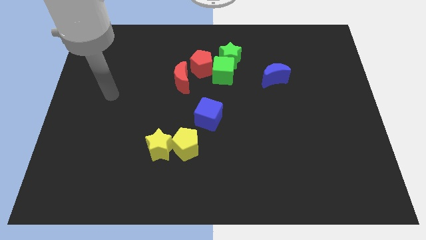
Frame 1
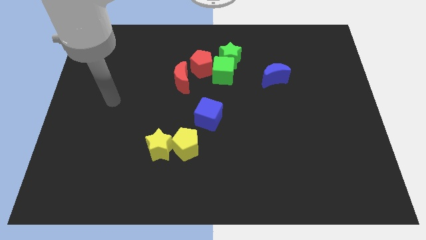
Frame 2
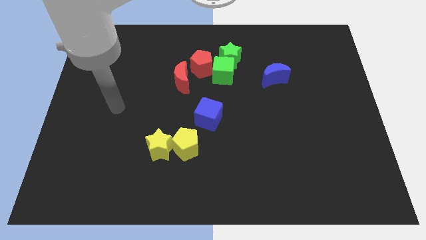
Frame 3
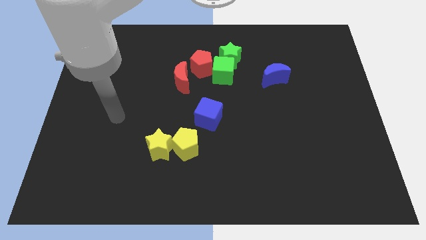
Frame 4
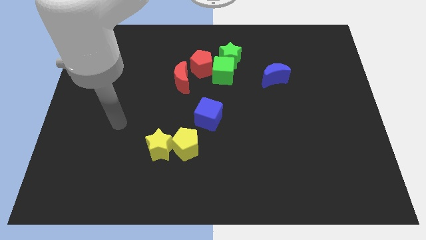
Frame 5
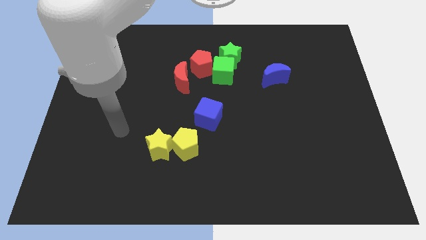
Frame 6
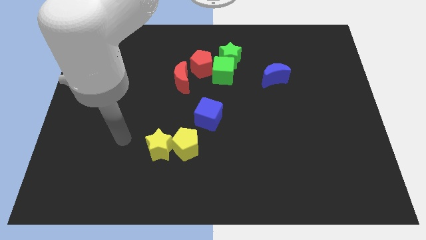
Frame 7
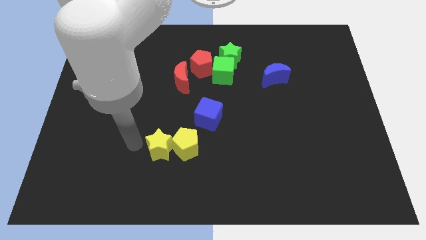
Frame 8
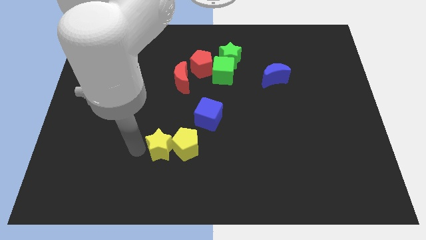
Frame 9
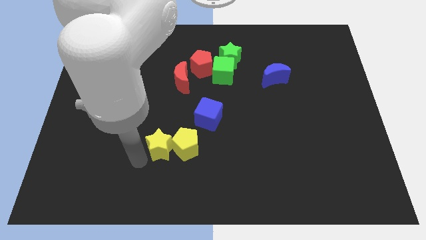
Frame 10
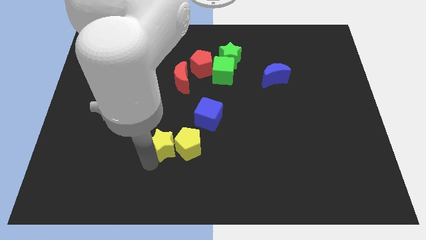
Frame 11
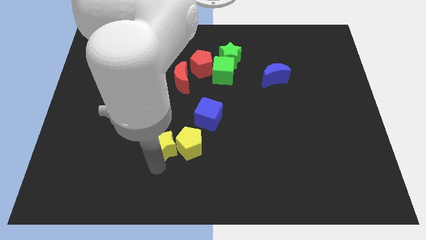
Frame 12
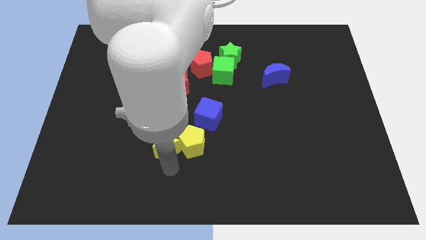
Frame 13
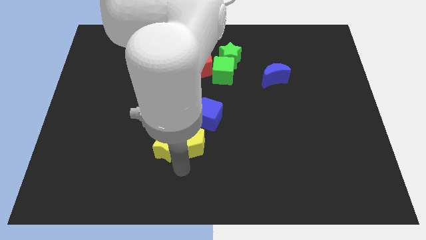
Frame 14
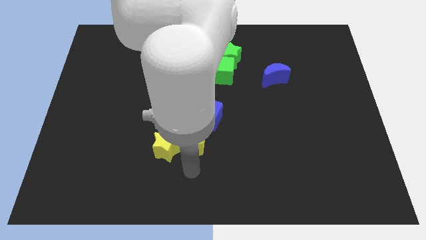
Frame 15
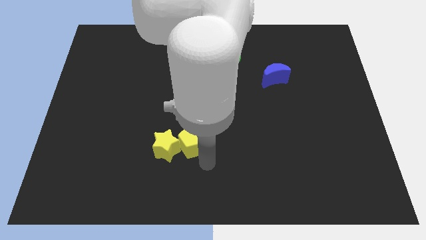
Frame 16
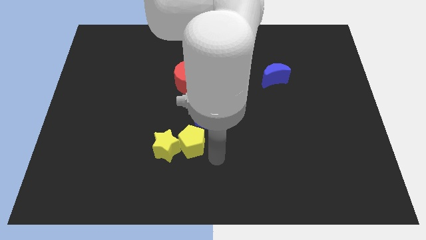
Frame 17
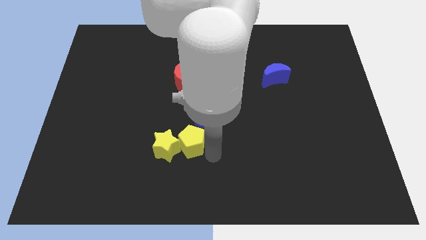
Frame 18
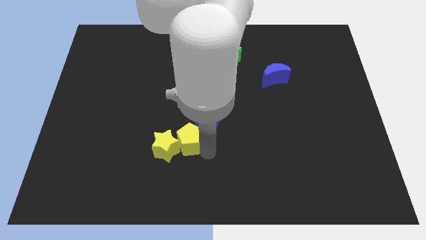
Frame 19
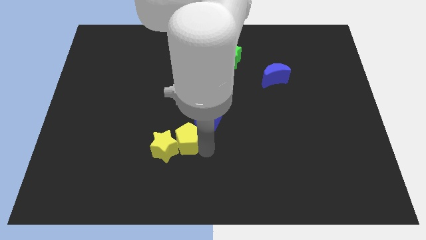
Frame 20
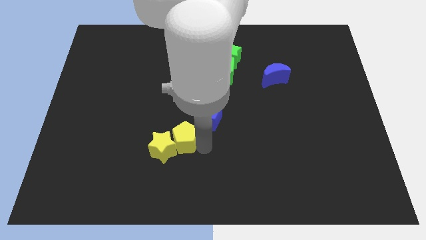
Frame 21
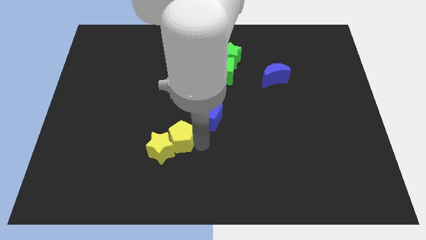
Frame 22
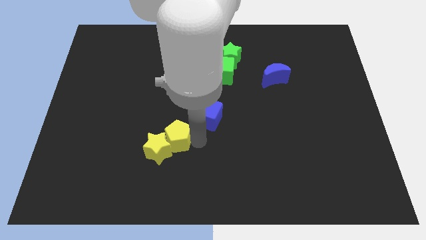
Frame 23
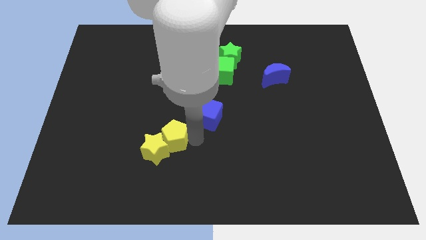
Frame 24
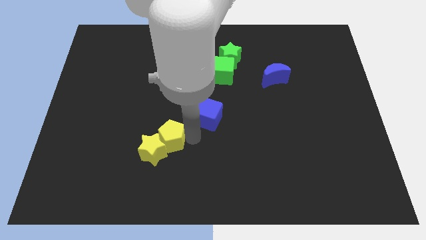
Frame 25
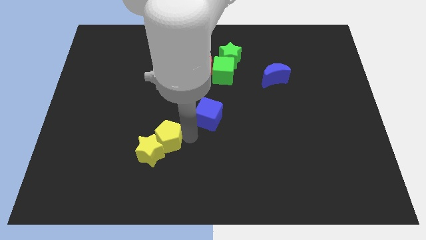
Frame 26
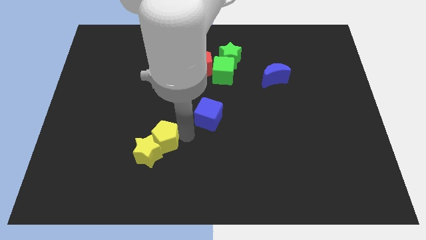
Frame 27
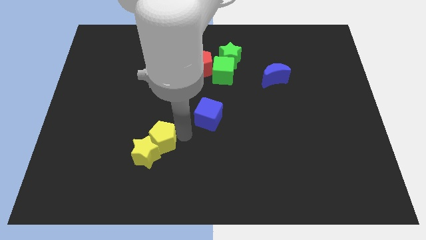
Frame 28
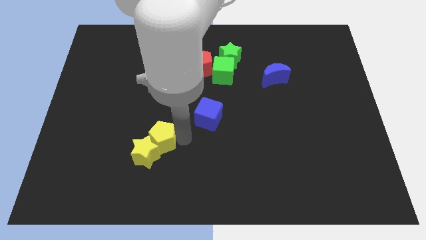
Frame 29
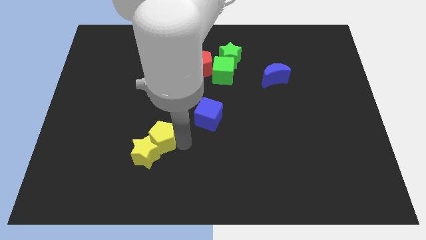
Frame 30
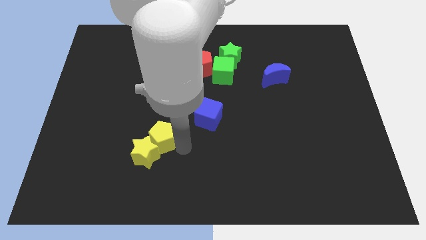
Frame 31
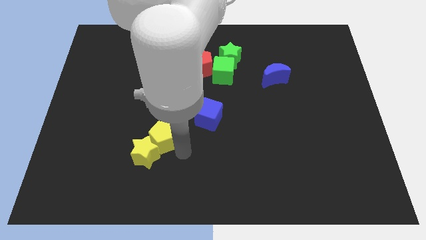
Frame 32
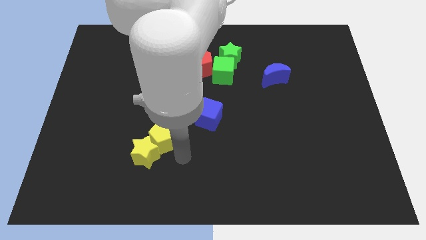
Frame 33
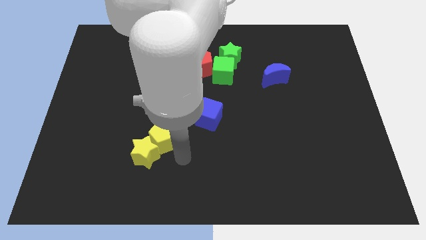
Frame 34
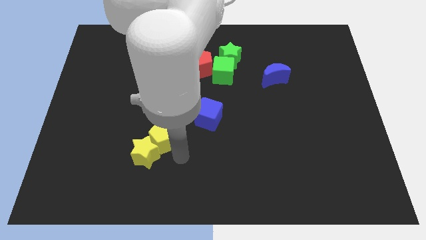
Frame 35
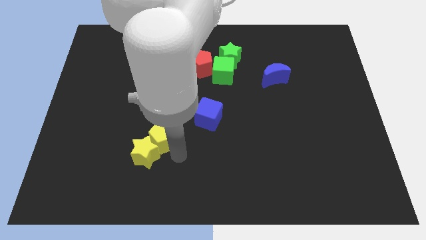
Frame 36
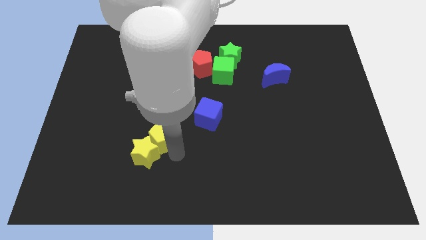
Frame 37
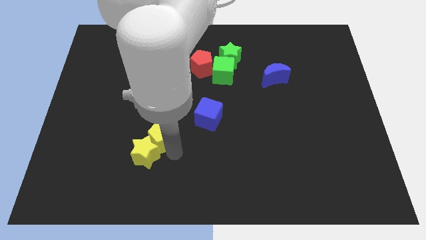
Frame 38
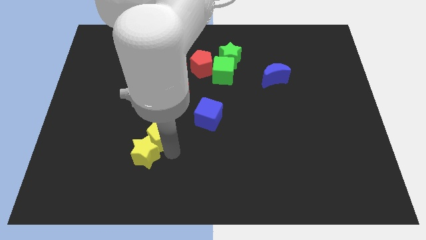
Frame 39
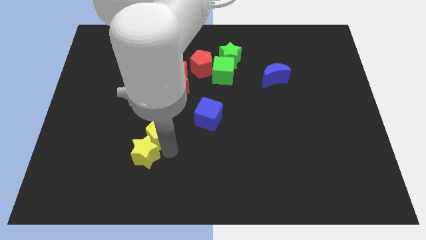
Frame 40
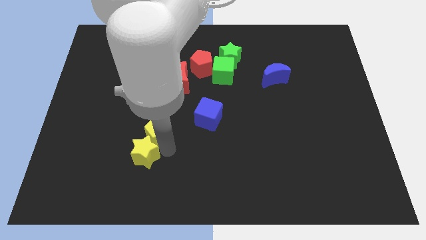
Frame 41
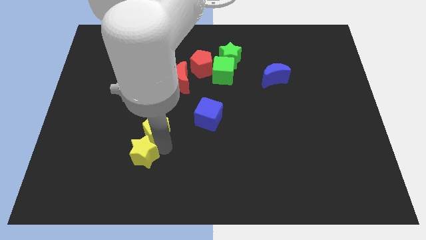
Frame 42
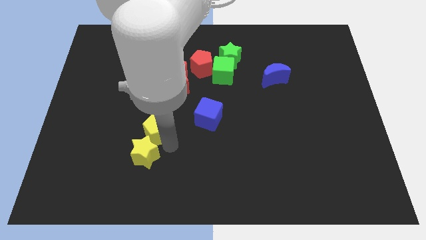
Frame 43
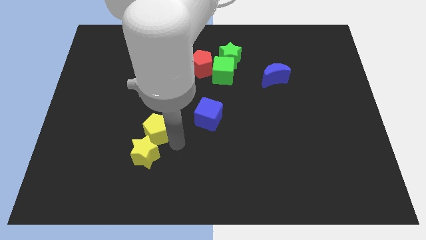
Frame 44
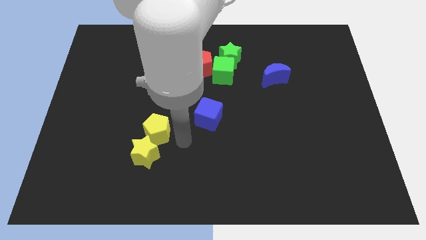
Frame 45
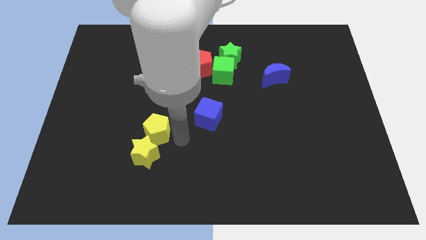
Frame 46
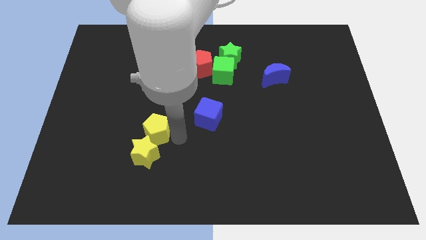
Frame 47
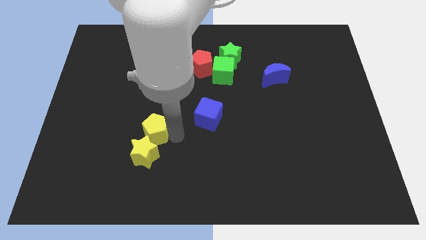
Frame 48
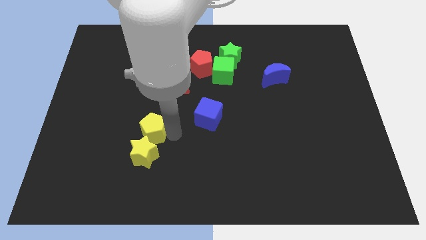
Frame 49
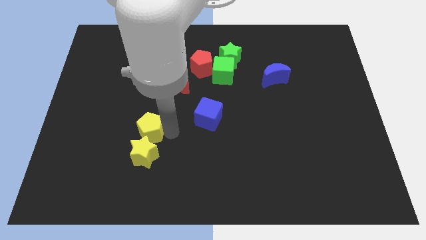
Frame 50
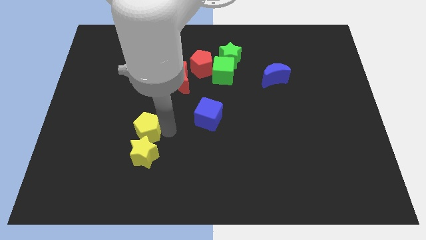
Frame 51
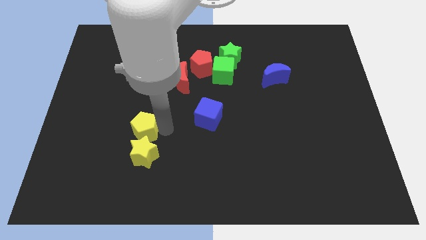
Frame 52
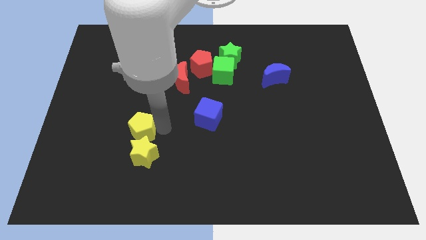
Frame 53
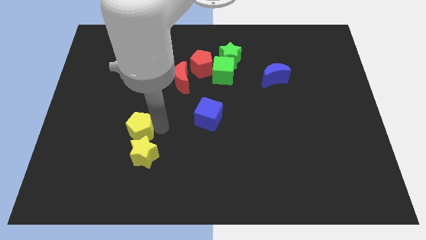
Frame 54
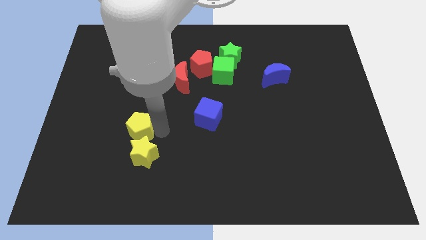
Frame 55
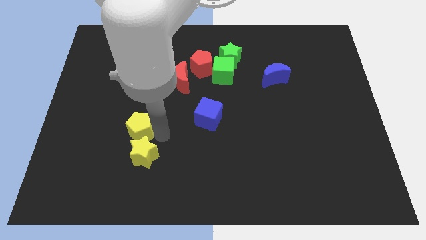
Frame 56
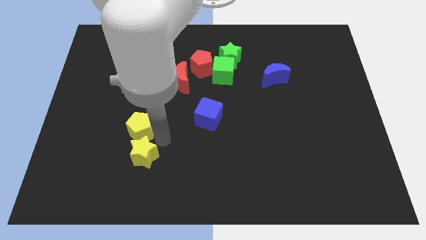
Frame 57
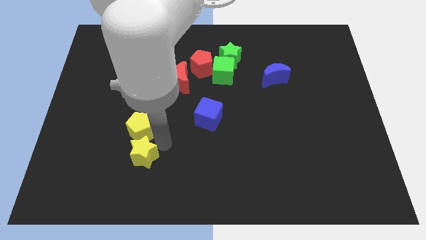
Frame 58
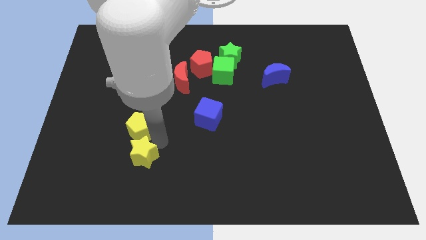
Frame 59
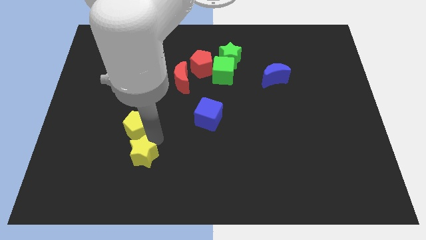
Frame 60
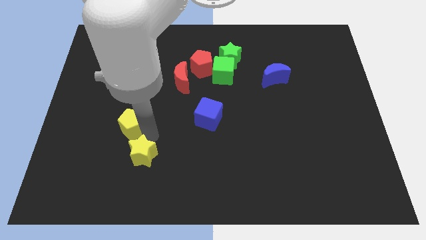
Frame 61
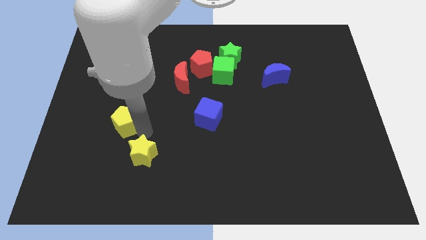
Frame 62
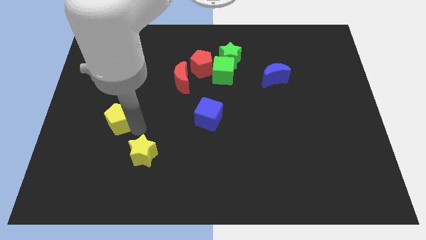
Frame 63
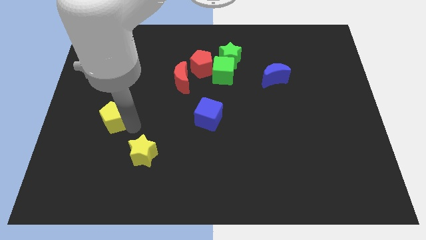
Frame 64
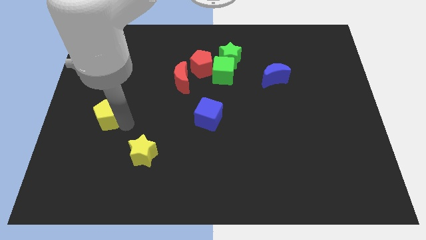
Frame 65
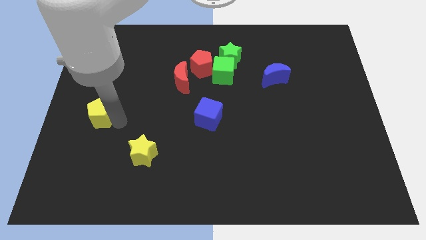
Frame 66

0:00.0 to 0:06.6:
slide the yellow pentagon to the left side of the board
